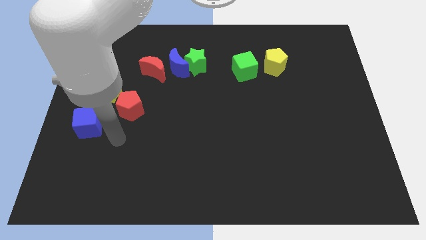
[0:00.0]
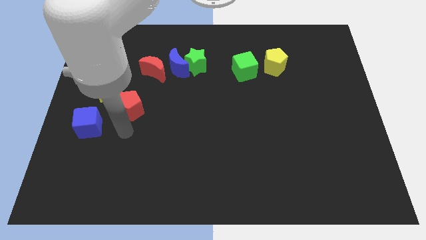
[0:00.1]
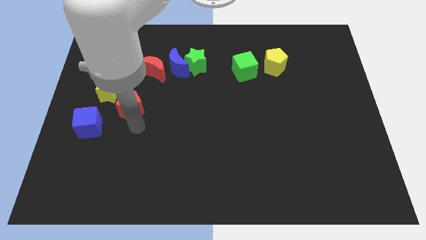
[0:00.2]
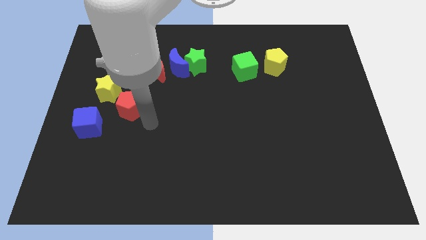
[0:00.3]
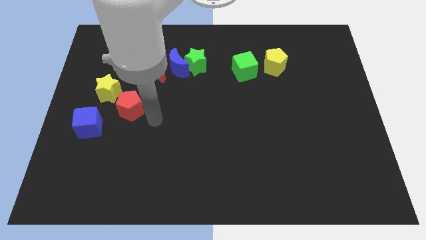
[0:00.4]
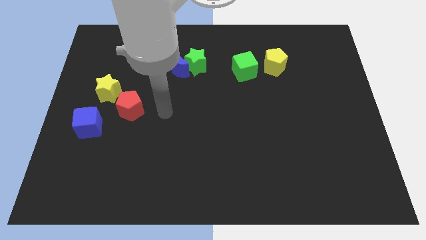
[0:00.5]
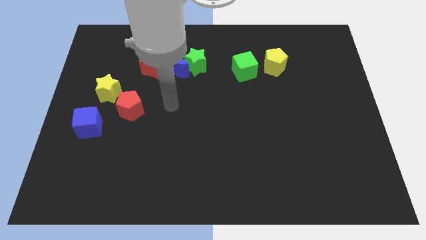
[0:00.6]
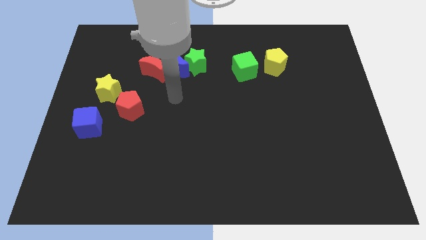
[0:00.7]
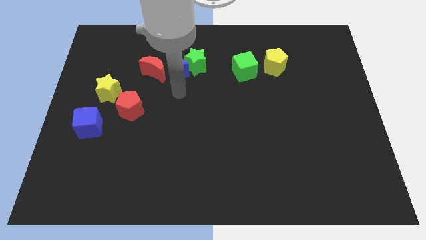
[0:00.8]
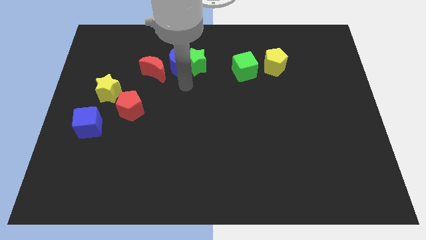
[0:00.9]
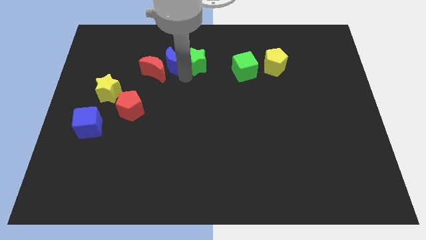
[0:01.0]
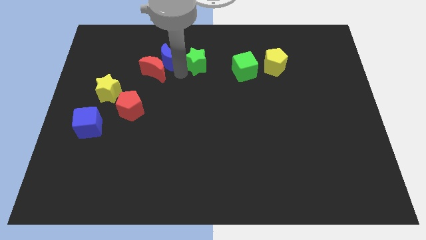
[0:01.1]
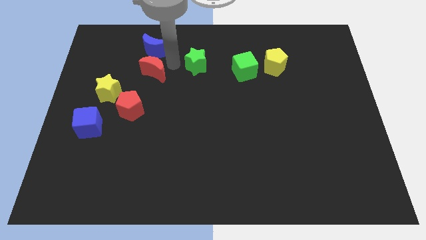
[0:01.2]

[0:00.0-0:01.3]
separate the green star from the blue moon

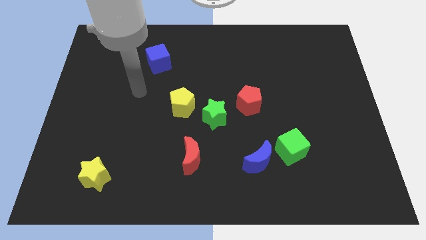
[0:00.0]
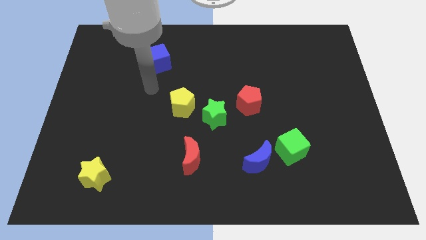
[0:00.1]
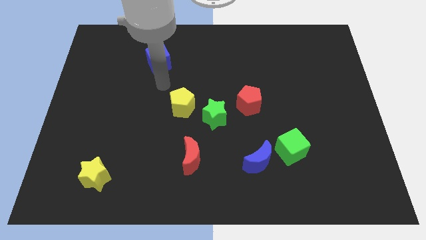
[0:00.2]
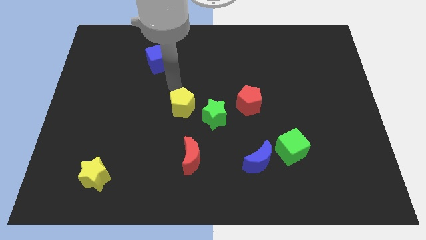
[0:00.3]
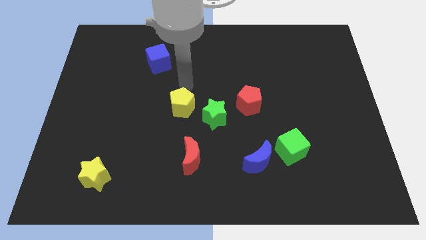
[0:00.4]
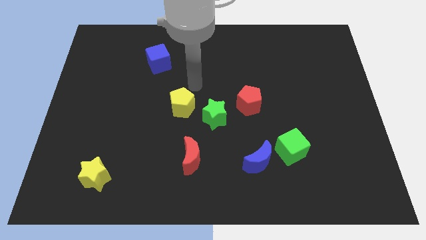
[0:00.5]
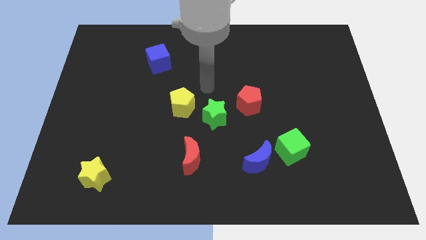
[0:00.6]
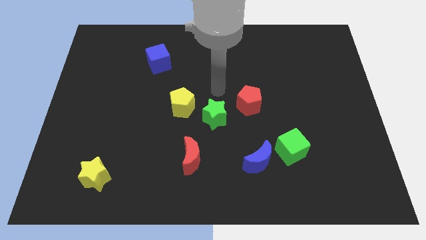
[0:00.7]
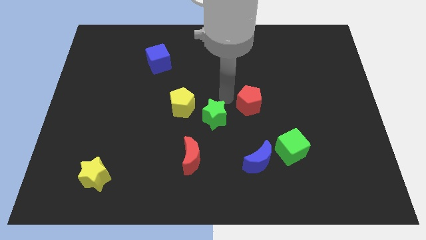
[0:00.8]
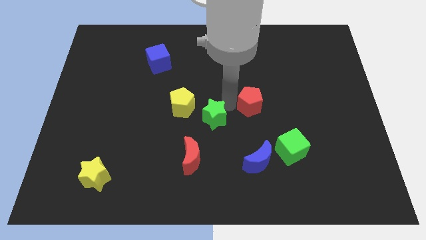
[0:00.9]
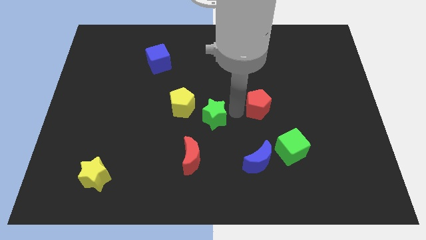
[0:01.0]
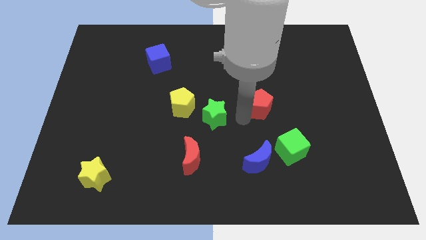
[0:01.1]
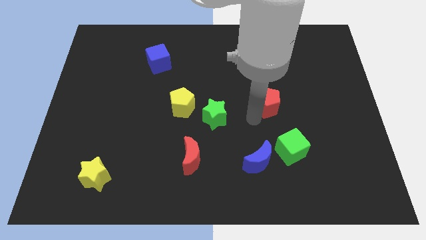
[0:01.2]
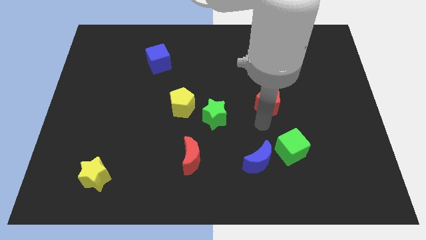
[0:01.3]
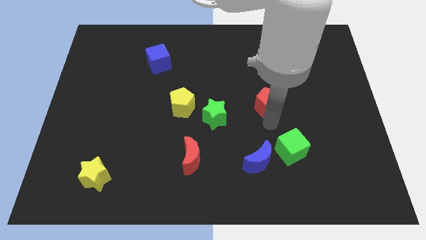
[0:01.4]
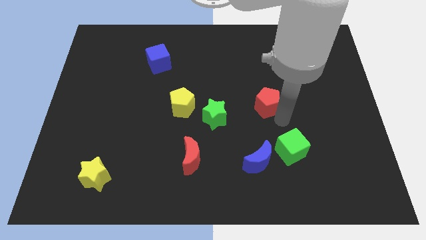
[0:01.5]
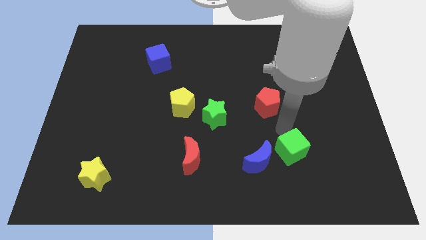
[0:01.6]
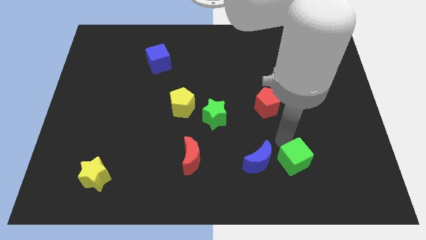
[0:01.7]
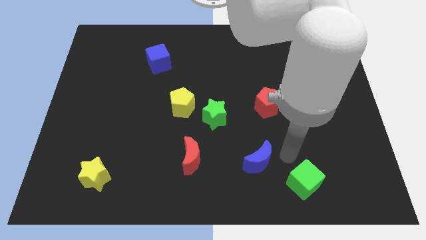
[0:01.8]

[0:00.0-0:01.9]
separate the blue moon from the green cube

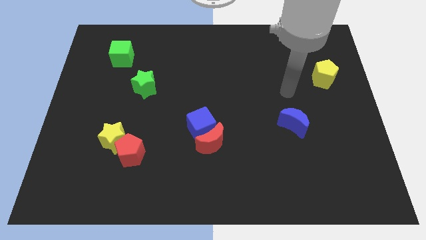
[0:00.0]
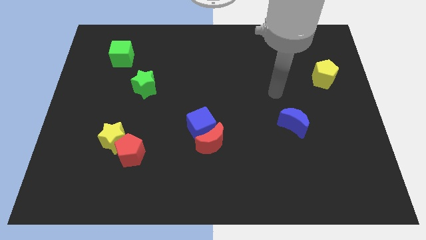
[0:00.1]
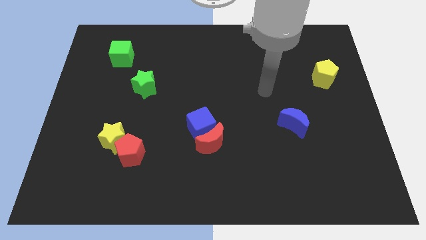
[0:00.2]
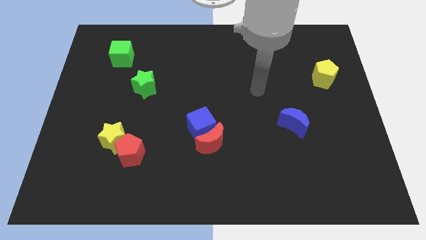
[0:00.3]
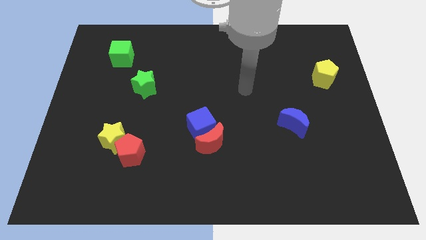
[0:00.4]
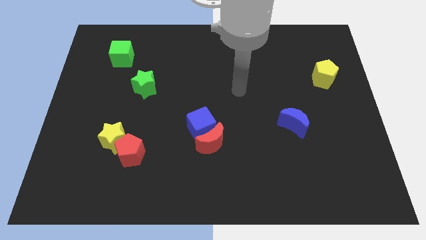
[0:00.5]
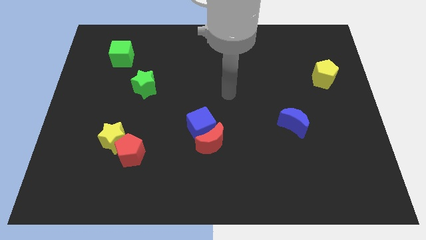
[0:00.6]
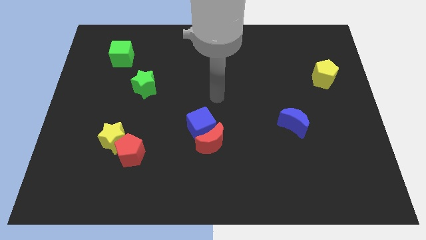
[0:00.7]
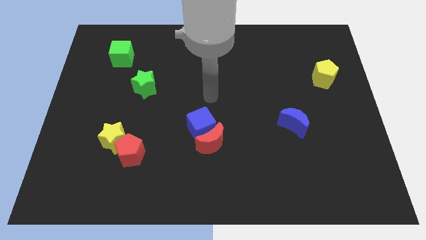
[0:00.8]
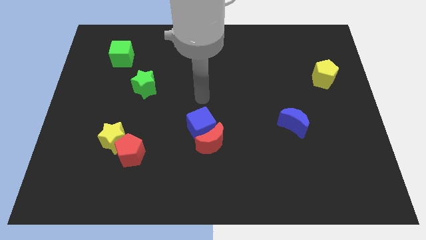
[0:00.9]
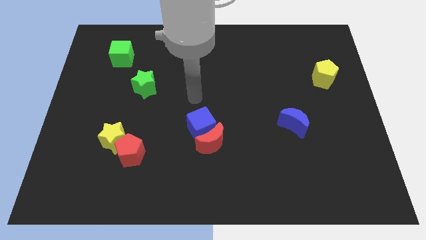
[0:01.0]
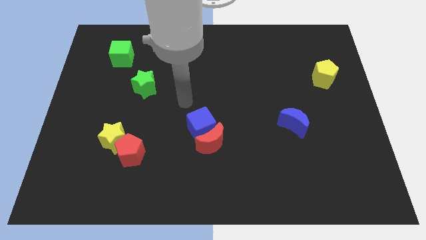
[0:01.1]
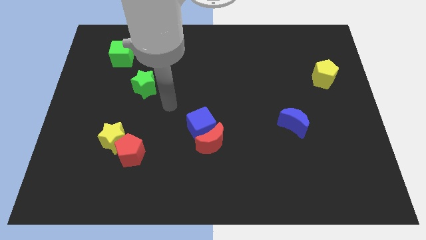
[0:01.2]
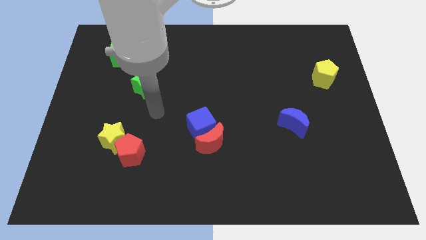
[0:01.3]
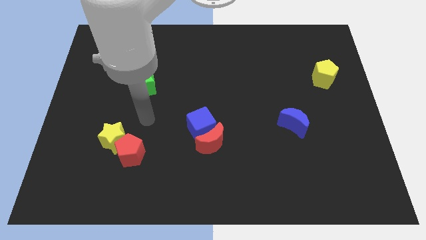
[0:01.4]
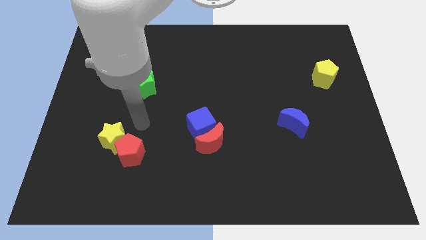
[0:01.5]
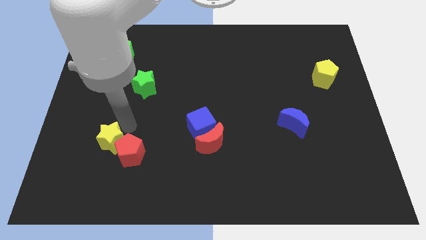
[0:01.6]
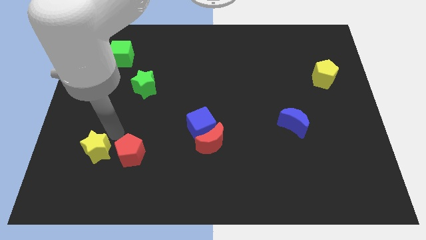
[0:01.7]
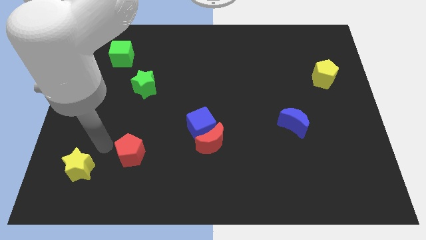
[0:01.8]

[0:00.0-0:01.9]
pull the red pentagon apart from the yellow star

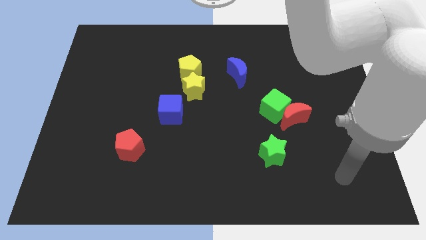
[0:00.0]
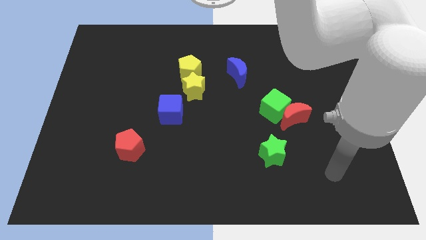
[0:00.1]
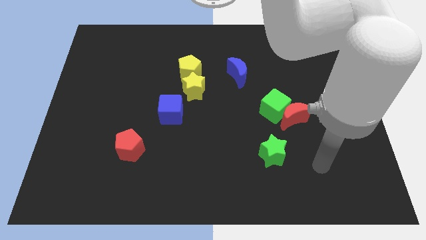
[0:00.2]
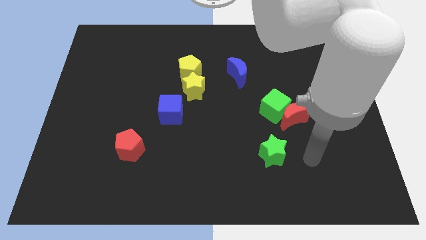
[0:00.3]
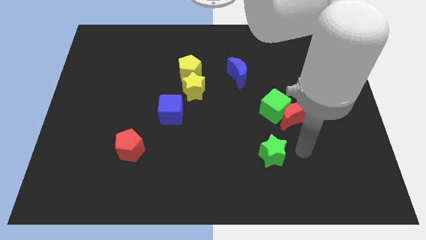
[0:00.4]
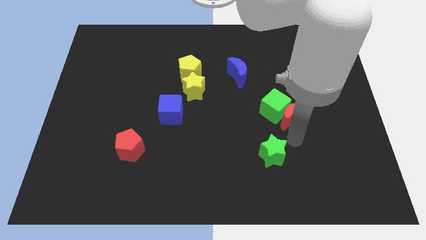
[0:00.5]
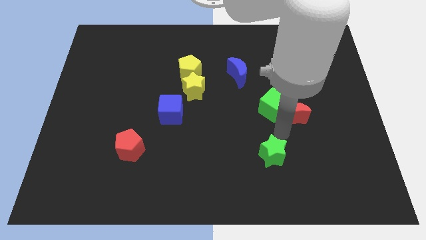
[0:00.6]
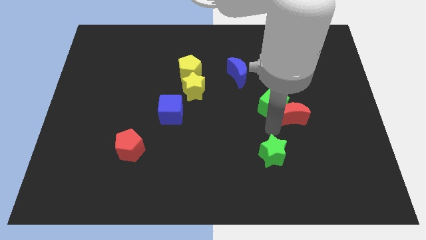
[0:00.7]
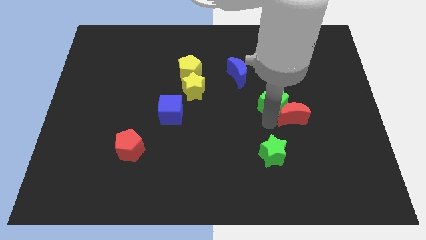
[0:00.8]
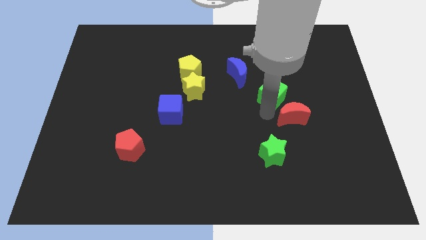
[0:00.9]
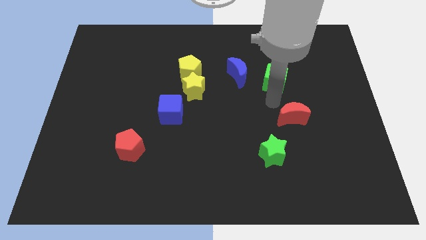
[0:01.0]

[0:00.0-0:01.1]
move the red moon away from the green cube

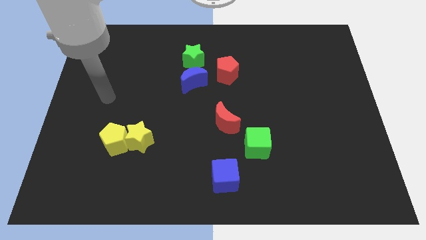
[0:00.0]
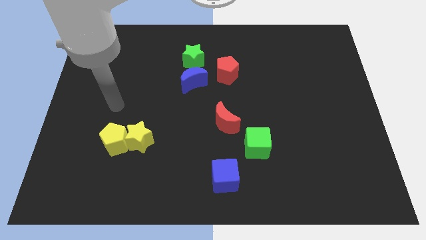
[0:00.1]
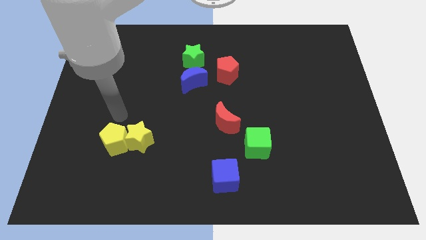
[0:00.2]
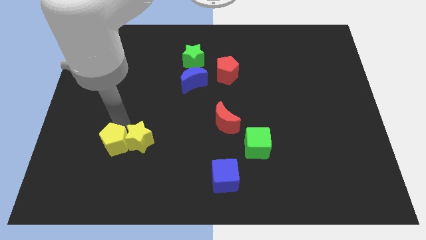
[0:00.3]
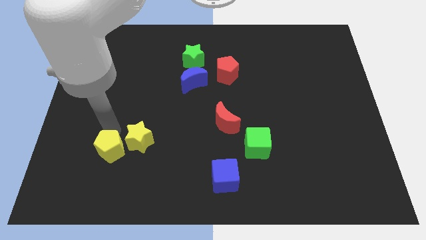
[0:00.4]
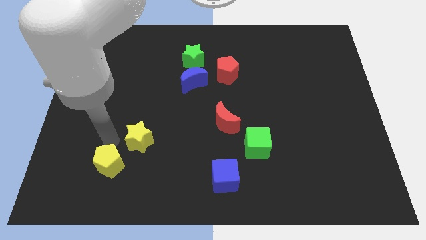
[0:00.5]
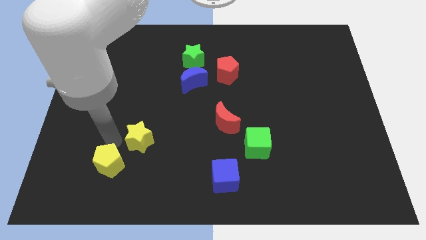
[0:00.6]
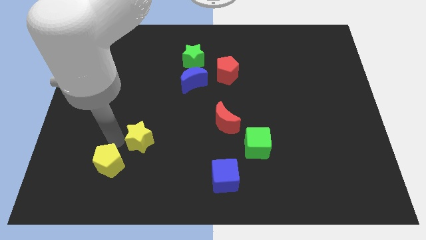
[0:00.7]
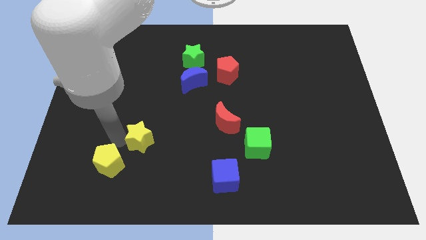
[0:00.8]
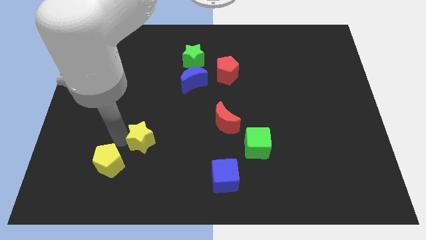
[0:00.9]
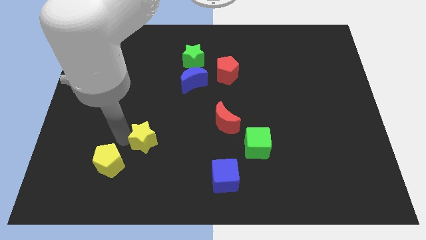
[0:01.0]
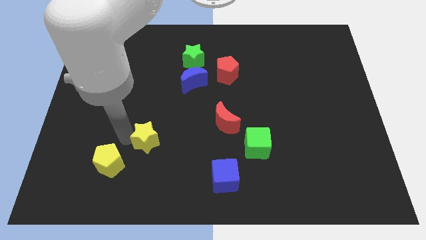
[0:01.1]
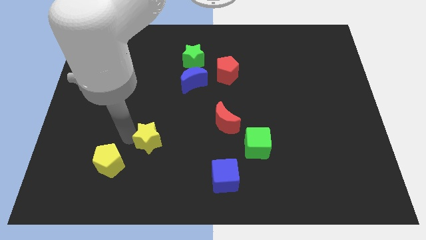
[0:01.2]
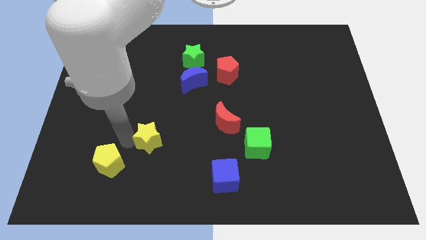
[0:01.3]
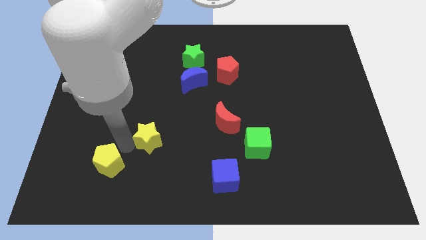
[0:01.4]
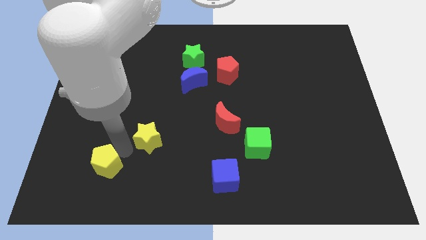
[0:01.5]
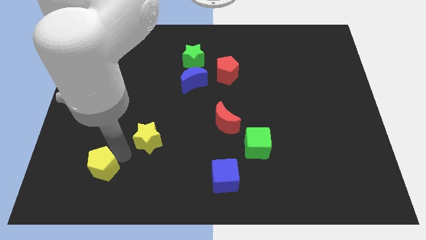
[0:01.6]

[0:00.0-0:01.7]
move the yellow star away from the yellow pentagon

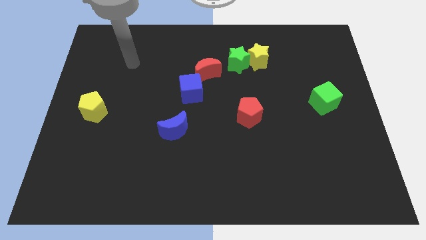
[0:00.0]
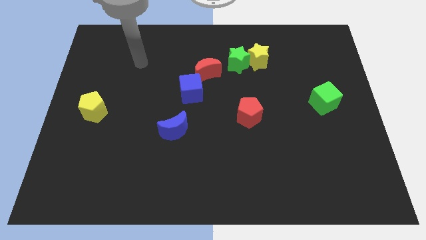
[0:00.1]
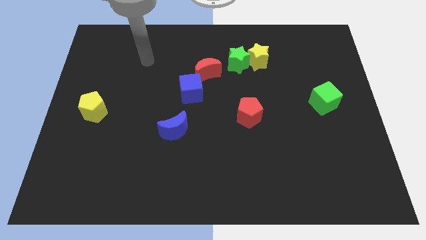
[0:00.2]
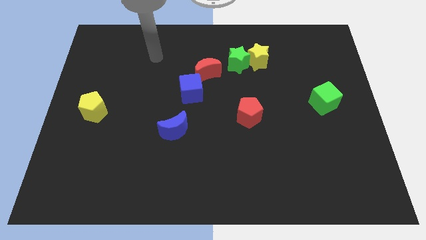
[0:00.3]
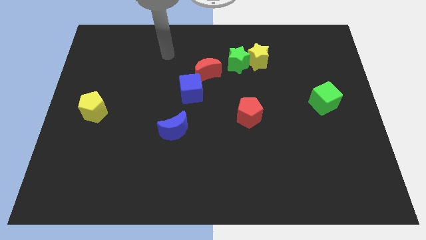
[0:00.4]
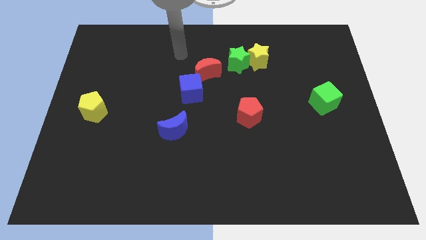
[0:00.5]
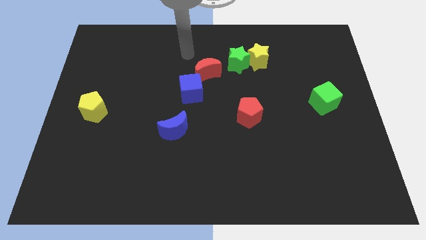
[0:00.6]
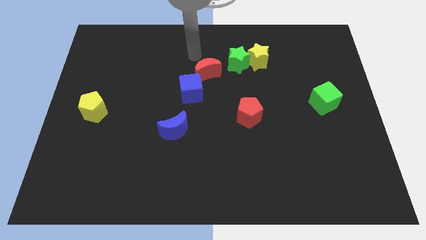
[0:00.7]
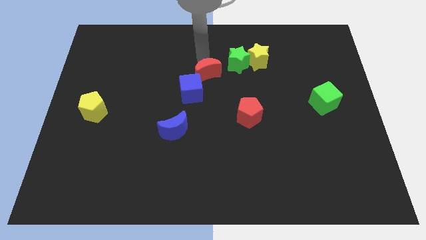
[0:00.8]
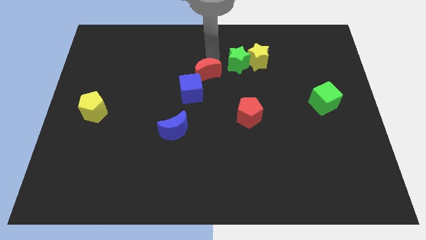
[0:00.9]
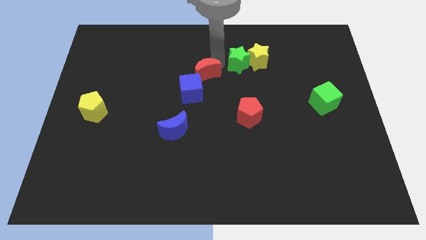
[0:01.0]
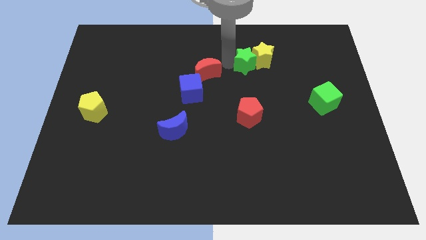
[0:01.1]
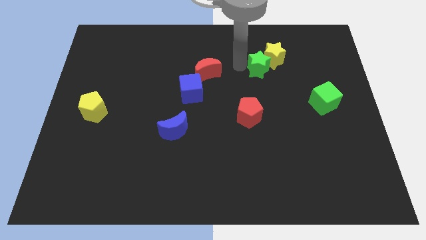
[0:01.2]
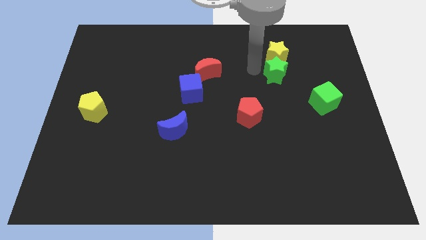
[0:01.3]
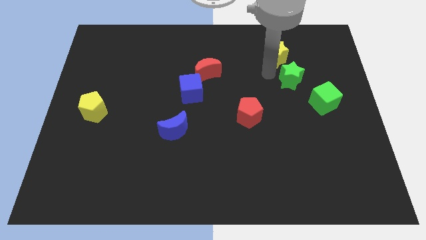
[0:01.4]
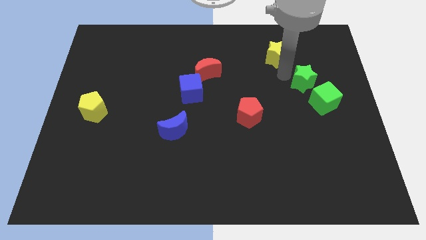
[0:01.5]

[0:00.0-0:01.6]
pull the yellow star apart from the green star
